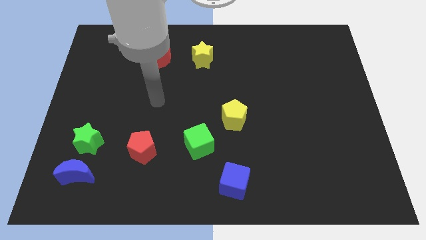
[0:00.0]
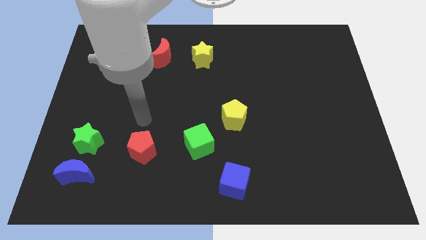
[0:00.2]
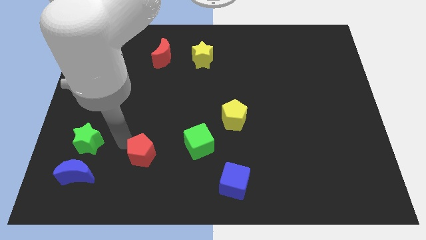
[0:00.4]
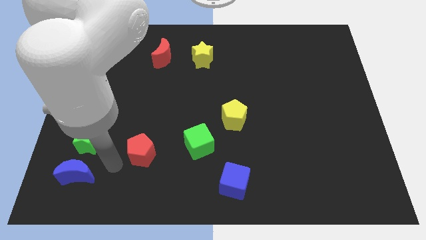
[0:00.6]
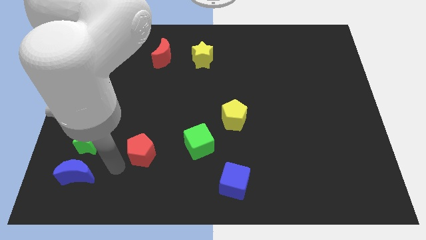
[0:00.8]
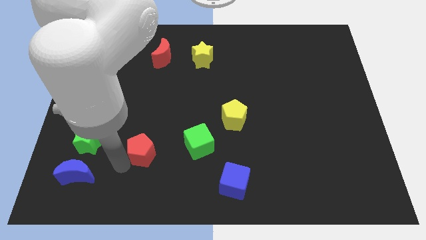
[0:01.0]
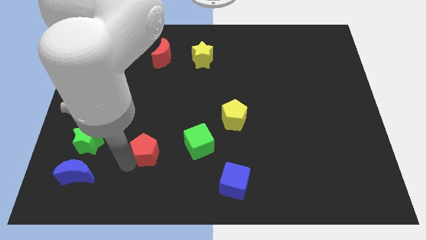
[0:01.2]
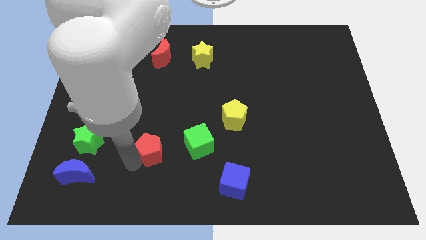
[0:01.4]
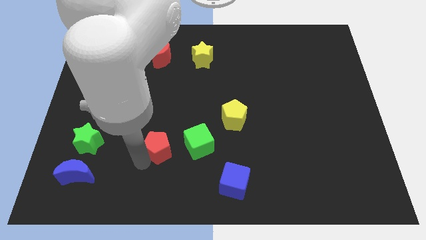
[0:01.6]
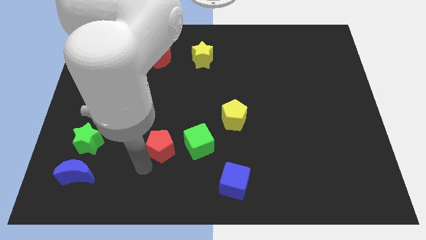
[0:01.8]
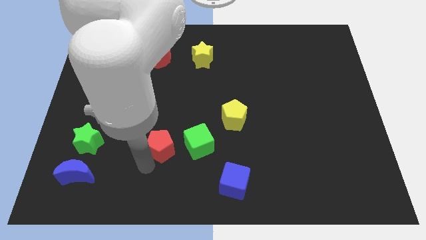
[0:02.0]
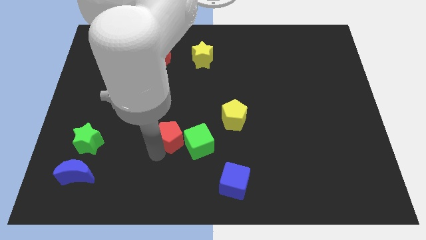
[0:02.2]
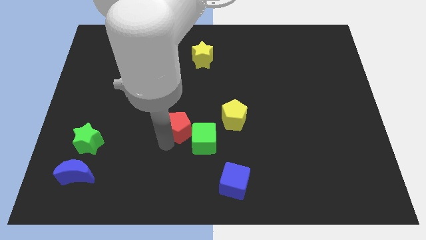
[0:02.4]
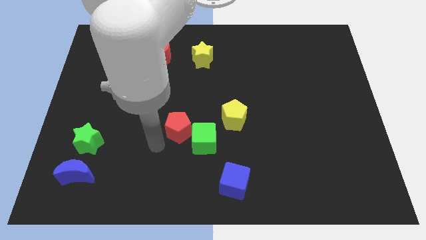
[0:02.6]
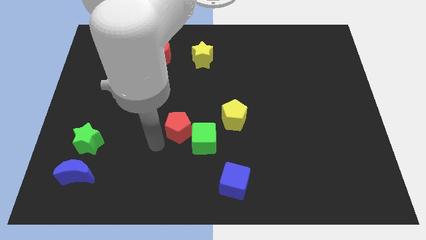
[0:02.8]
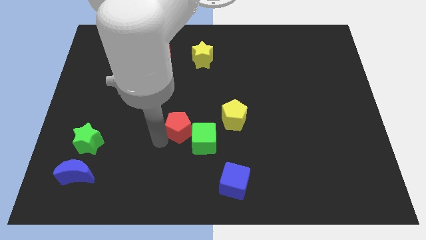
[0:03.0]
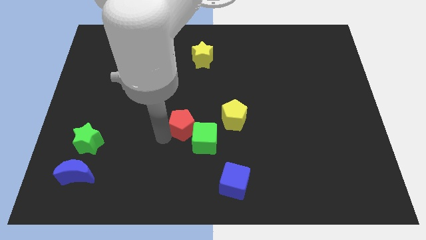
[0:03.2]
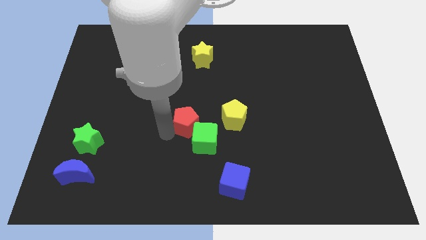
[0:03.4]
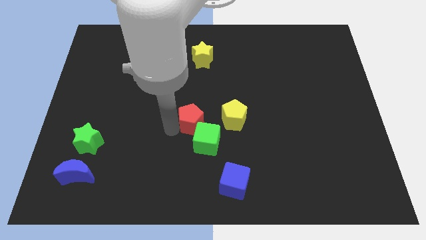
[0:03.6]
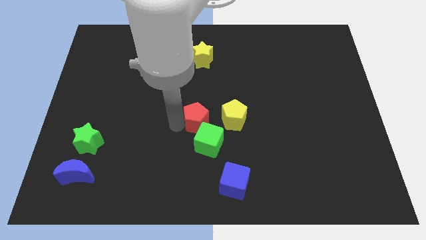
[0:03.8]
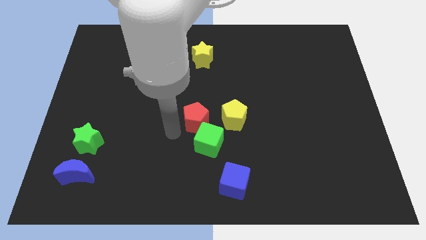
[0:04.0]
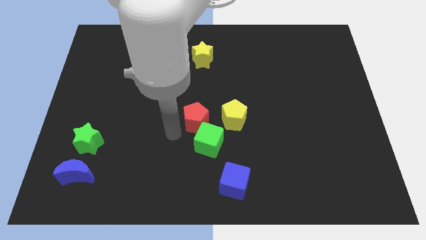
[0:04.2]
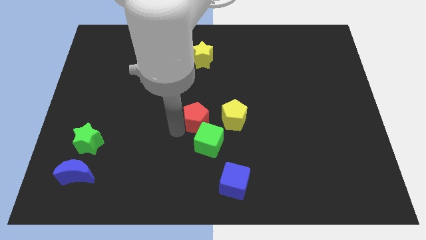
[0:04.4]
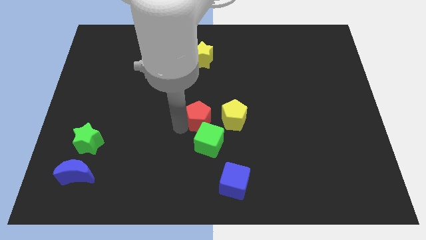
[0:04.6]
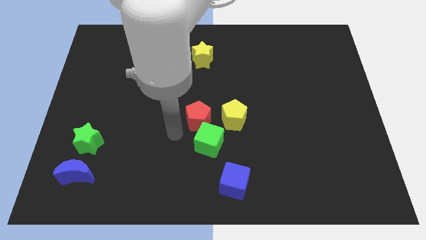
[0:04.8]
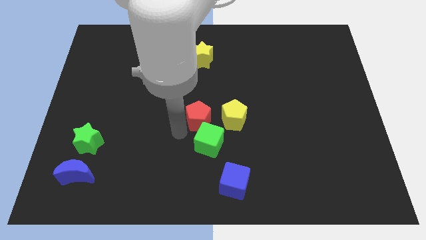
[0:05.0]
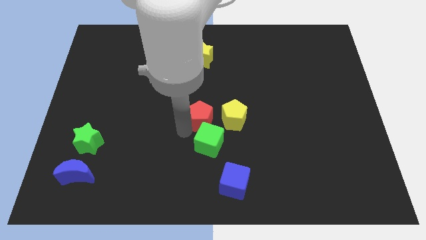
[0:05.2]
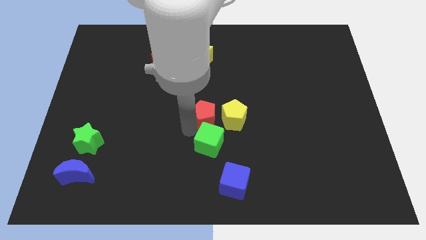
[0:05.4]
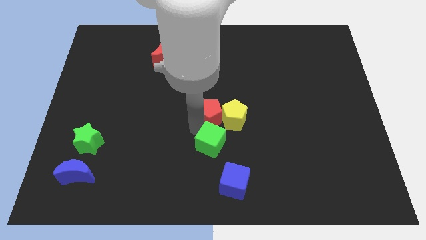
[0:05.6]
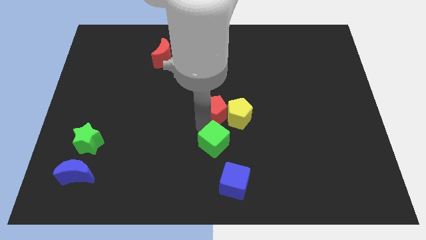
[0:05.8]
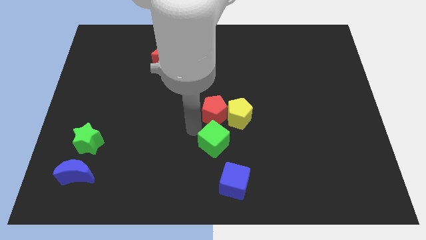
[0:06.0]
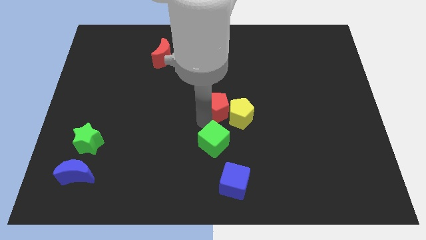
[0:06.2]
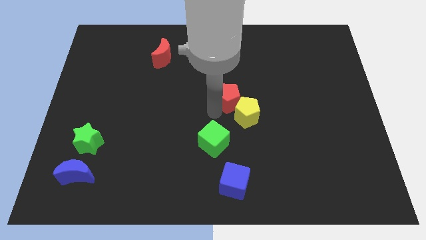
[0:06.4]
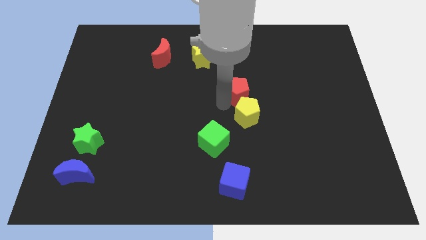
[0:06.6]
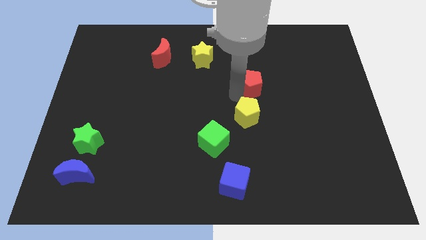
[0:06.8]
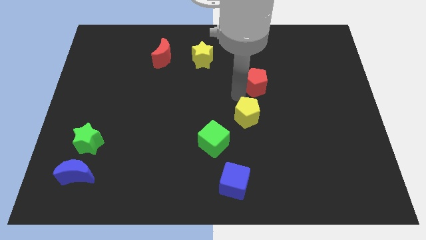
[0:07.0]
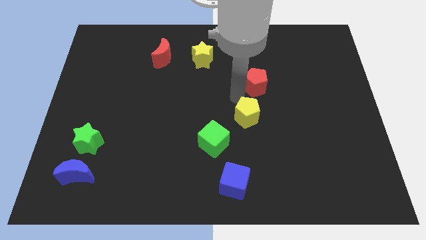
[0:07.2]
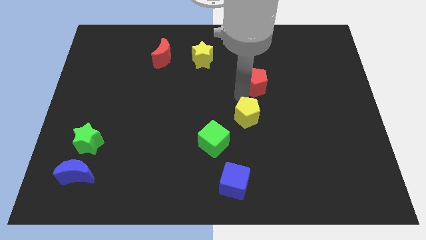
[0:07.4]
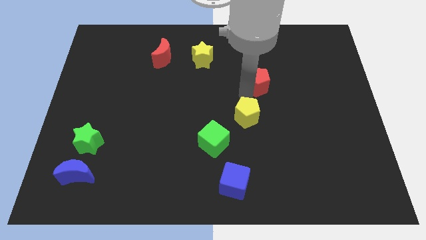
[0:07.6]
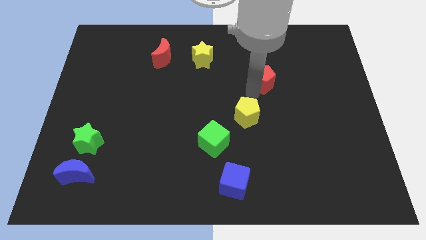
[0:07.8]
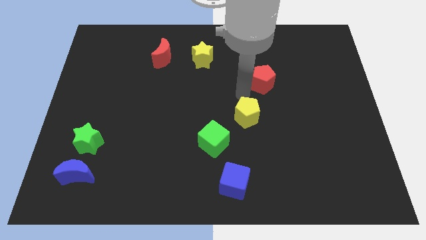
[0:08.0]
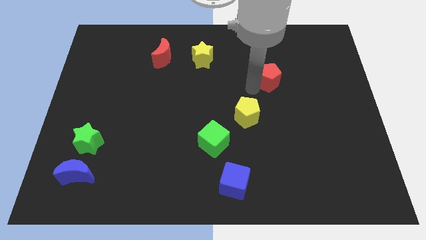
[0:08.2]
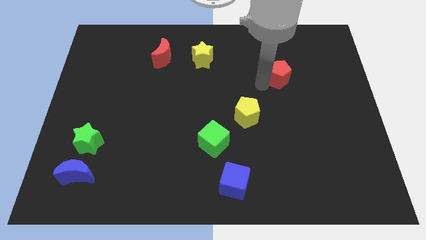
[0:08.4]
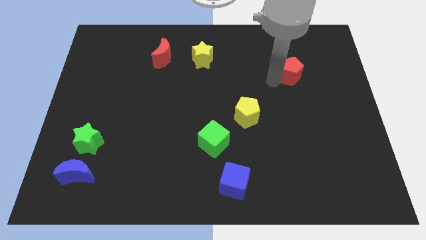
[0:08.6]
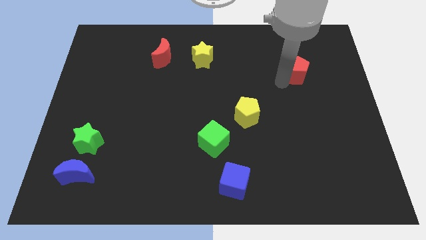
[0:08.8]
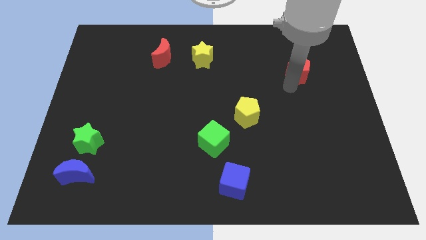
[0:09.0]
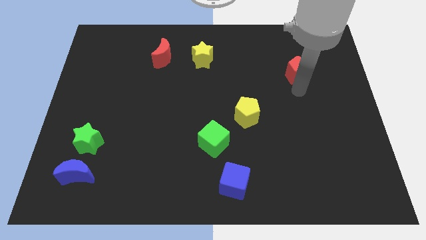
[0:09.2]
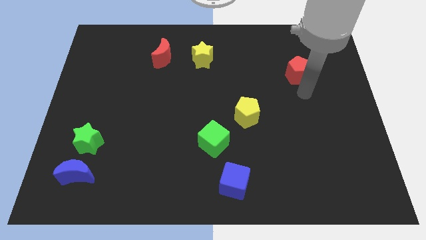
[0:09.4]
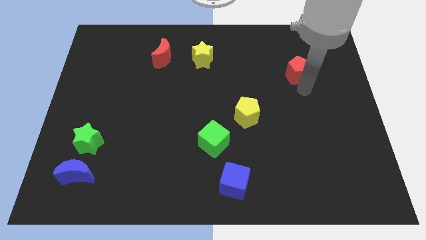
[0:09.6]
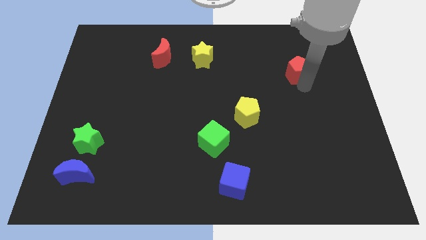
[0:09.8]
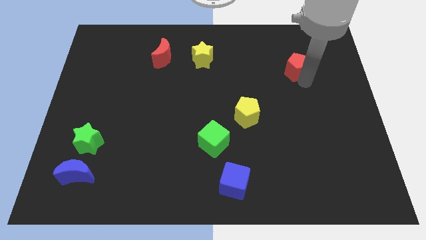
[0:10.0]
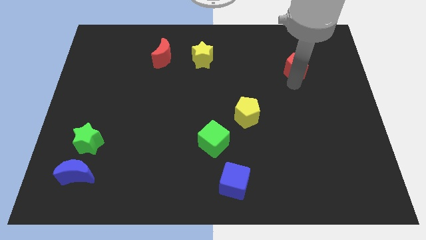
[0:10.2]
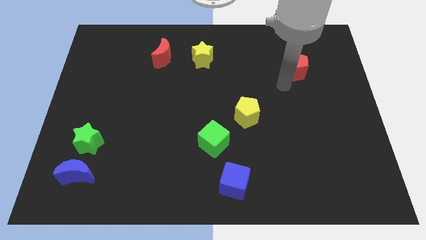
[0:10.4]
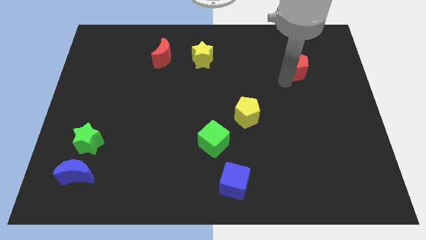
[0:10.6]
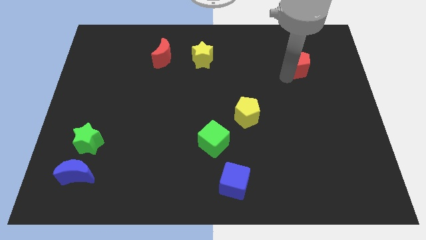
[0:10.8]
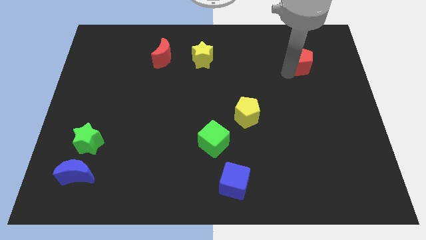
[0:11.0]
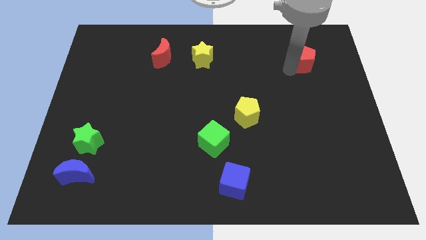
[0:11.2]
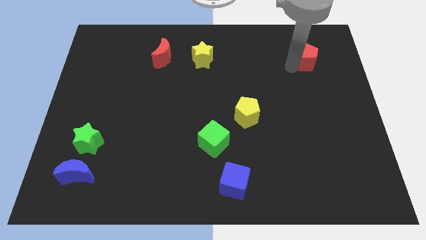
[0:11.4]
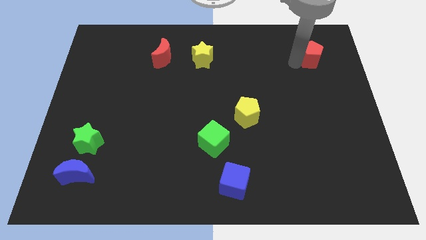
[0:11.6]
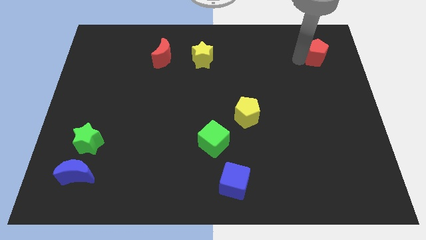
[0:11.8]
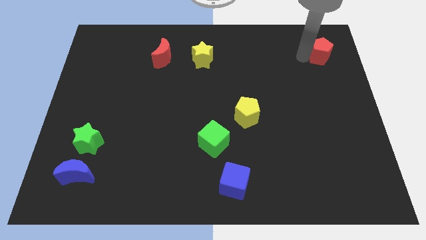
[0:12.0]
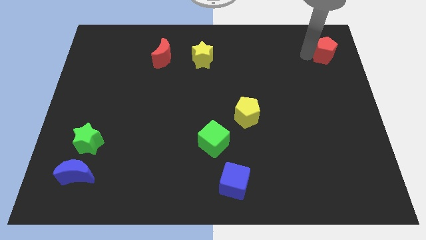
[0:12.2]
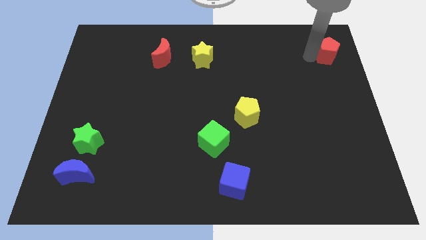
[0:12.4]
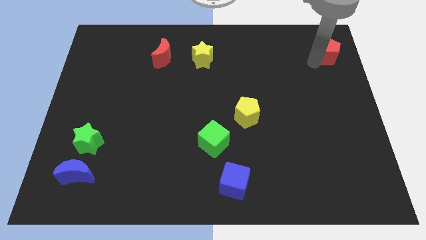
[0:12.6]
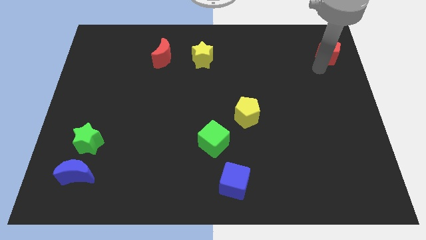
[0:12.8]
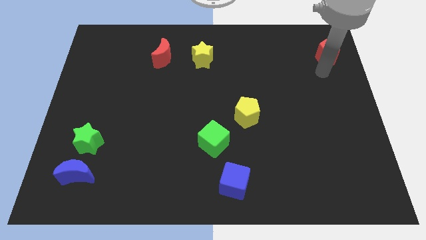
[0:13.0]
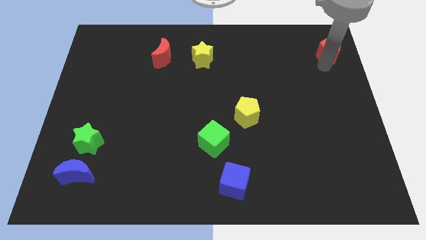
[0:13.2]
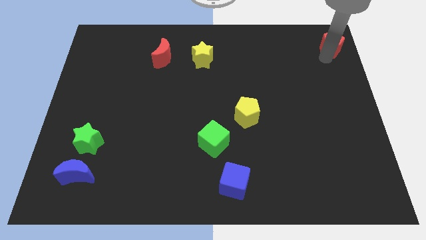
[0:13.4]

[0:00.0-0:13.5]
move the red pentagon to the top right
